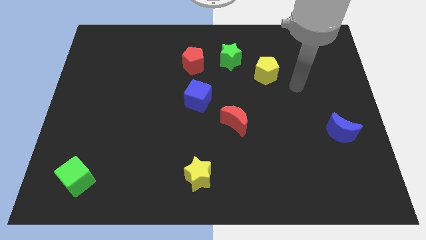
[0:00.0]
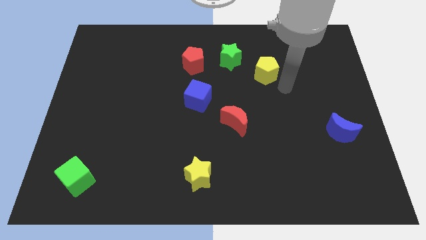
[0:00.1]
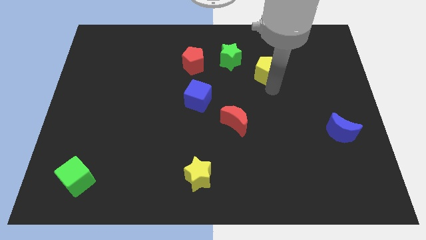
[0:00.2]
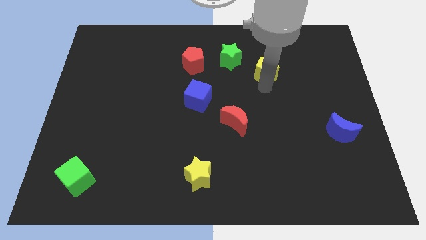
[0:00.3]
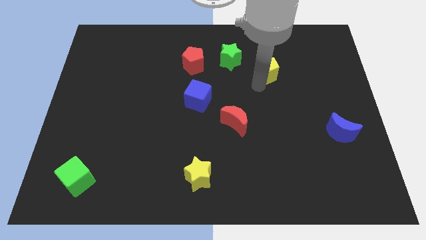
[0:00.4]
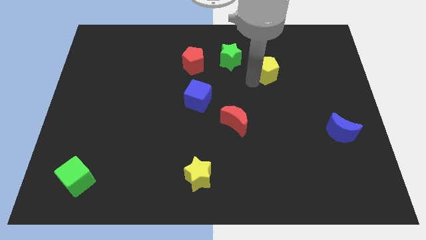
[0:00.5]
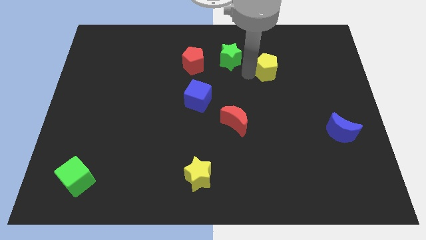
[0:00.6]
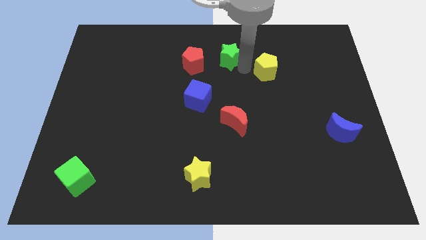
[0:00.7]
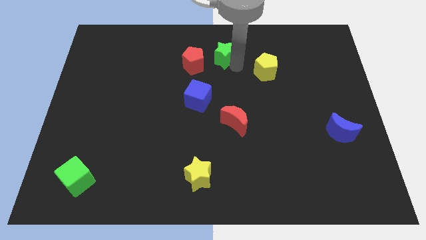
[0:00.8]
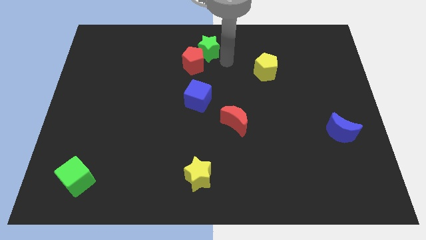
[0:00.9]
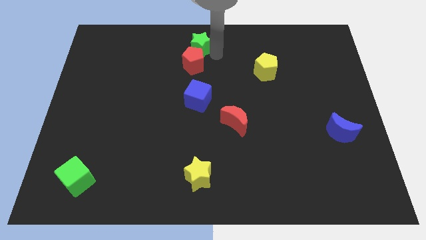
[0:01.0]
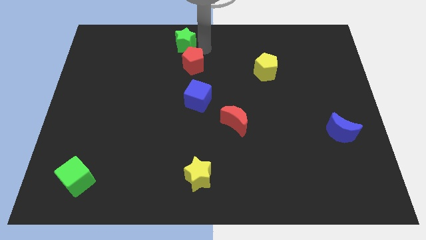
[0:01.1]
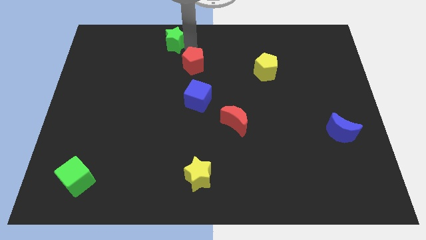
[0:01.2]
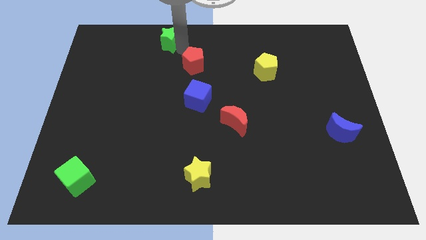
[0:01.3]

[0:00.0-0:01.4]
separate the red pentagon from the green star

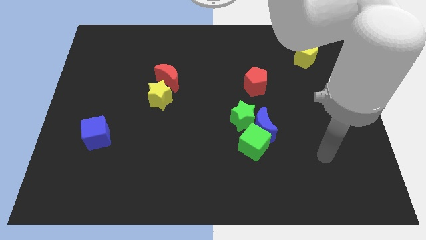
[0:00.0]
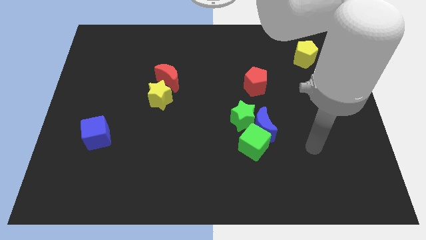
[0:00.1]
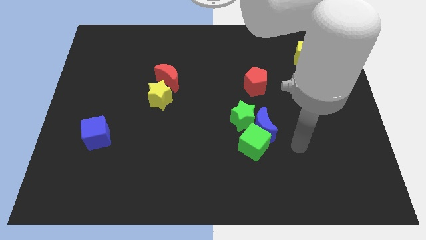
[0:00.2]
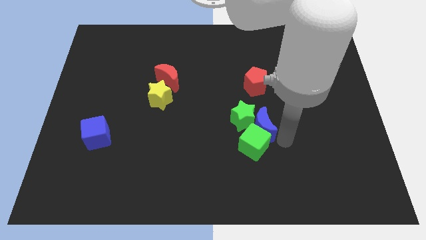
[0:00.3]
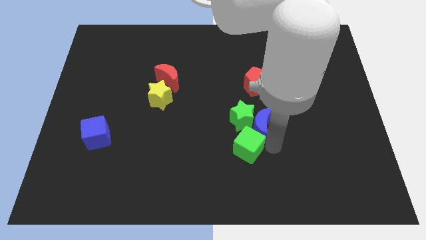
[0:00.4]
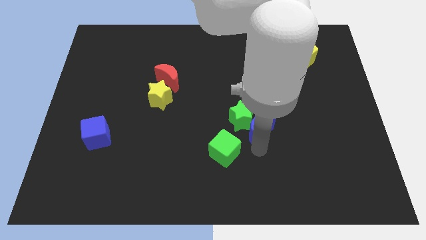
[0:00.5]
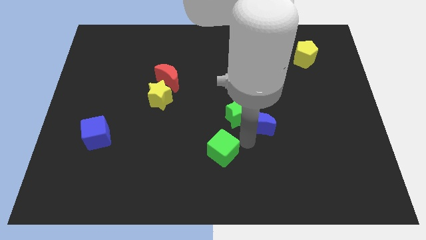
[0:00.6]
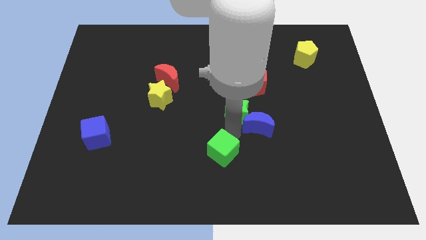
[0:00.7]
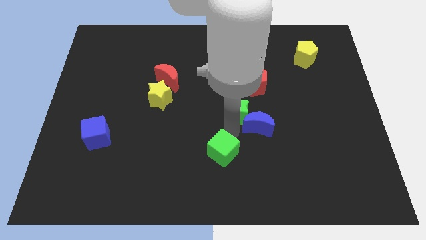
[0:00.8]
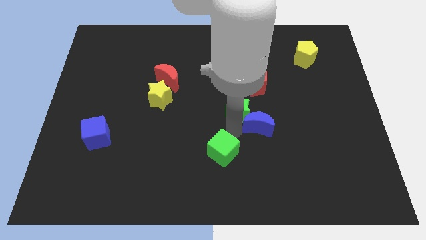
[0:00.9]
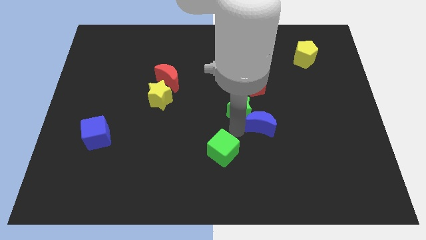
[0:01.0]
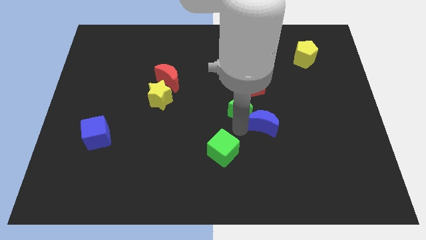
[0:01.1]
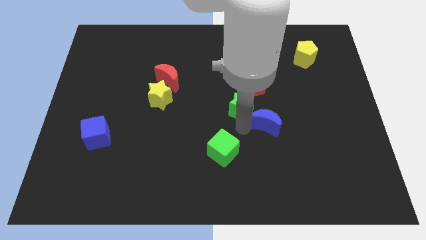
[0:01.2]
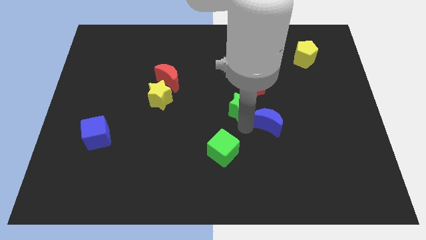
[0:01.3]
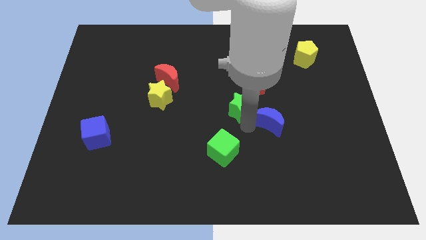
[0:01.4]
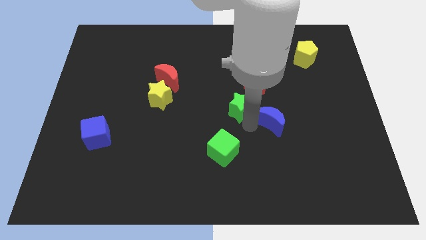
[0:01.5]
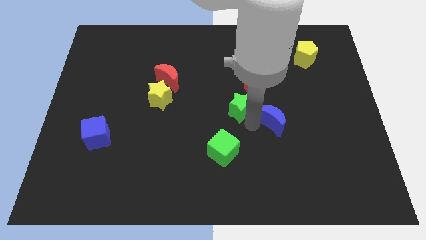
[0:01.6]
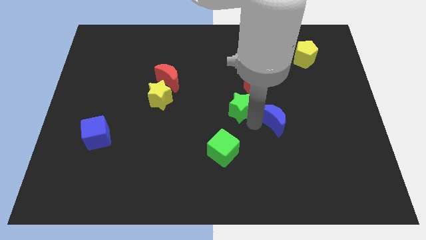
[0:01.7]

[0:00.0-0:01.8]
pull the blue moon apart from the green cube and green star

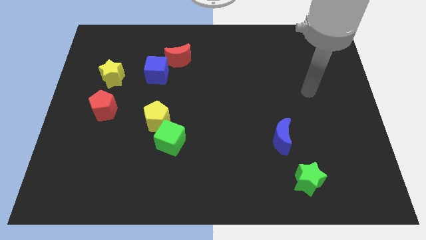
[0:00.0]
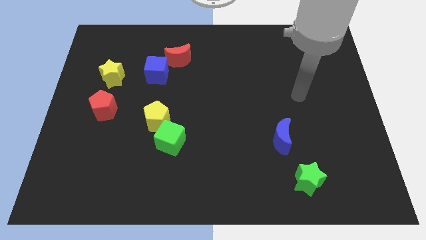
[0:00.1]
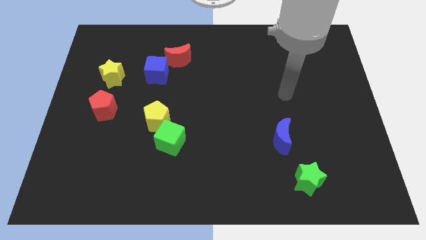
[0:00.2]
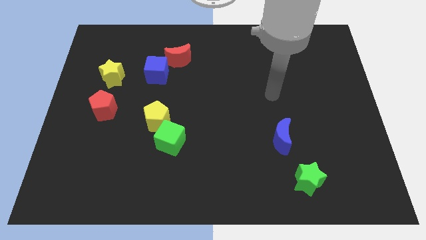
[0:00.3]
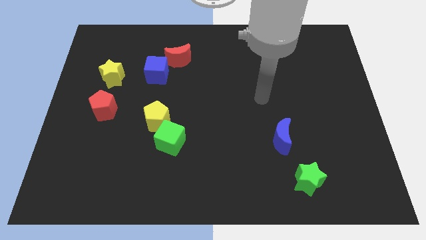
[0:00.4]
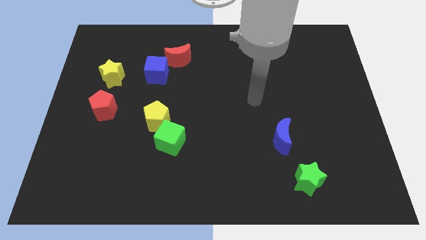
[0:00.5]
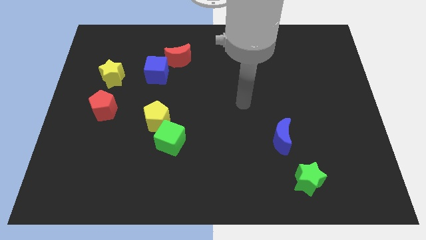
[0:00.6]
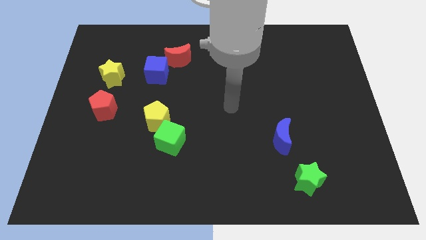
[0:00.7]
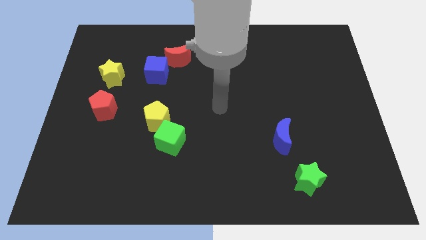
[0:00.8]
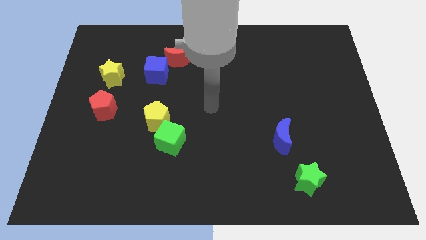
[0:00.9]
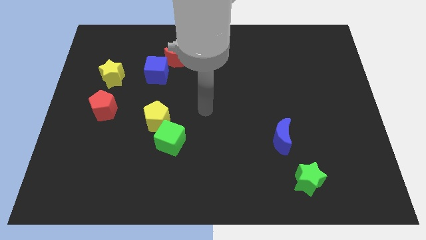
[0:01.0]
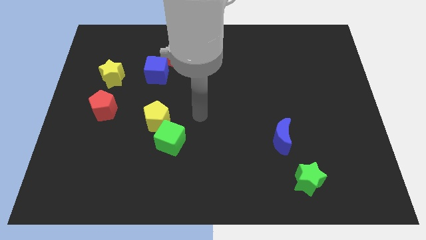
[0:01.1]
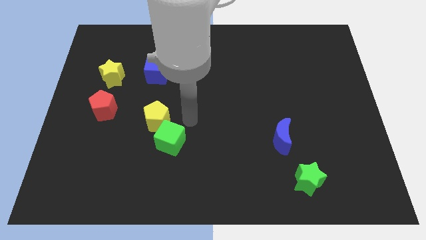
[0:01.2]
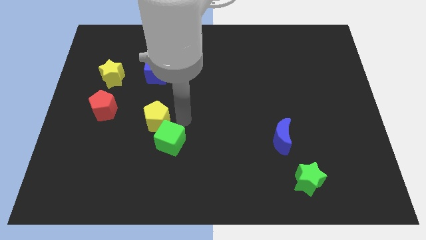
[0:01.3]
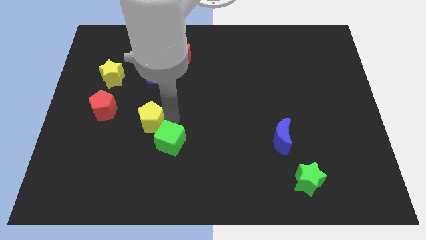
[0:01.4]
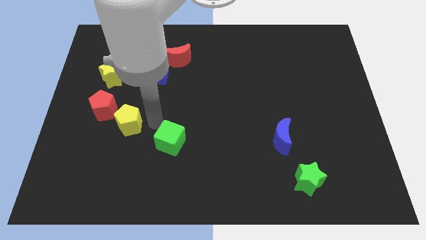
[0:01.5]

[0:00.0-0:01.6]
pull the green cube apart from the yellow pentagon

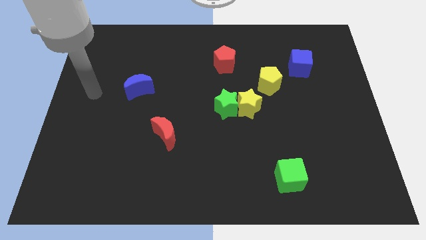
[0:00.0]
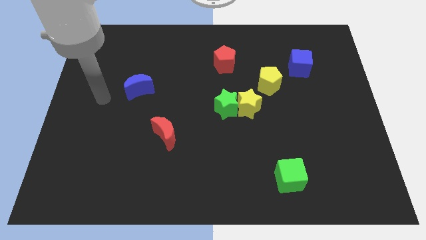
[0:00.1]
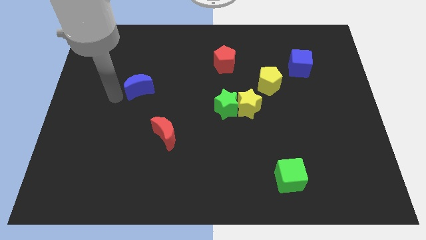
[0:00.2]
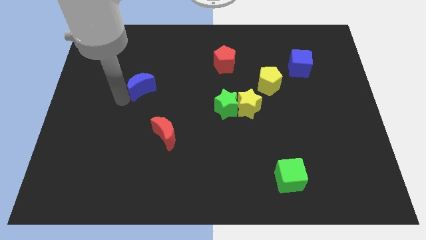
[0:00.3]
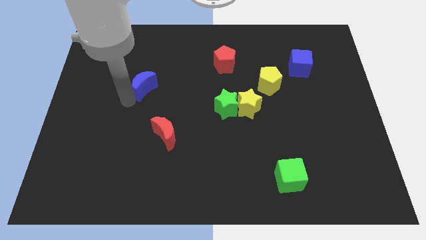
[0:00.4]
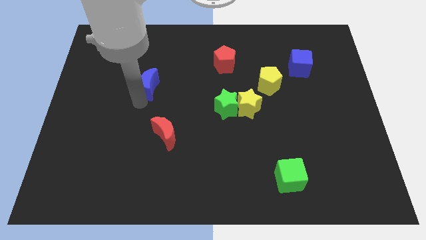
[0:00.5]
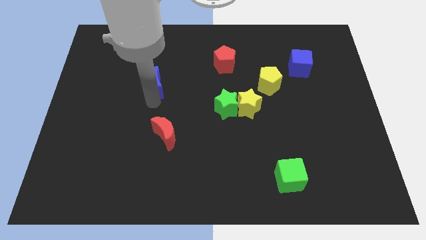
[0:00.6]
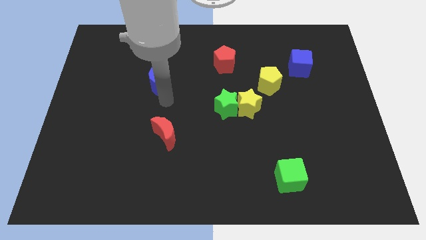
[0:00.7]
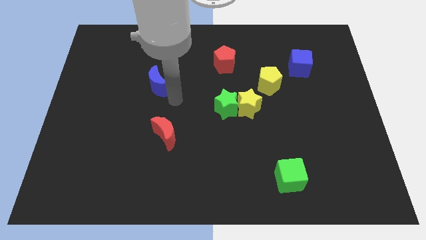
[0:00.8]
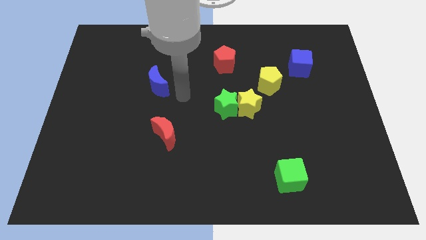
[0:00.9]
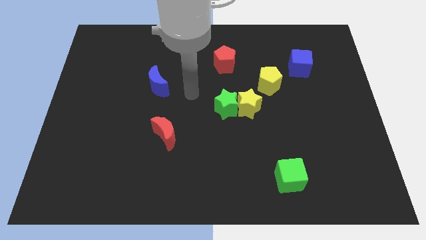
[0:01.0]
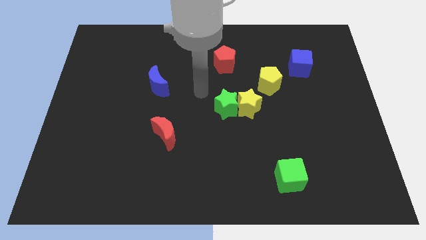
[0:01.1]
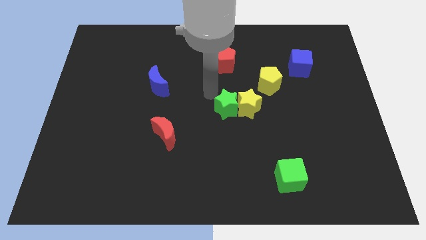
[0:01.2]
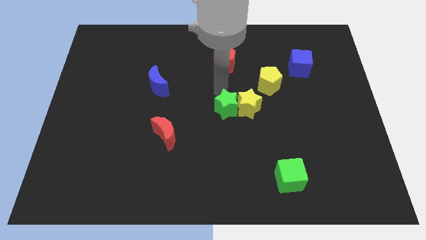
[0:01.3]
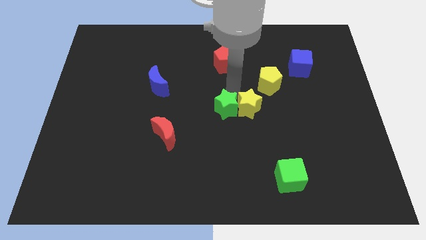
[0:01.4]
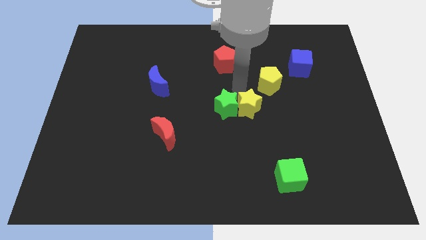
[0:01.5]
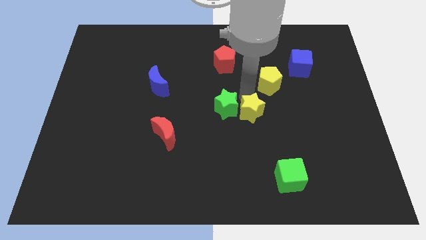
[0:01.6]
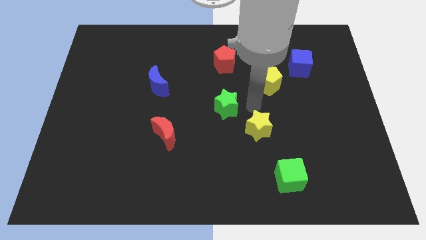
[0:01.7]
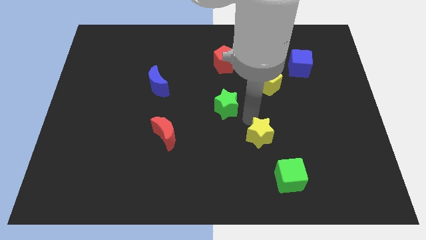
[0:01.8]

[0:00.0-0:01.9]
move the green star away from the yellow star

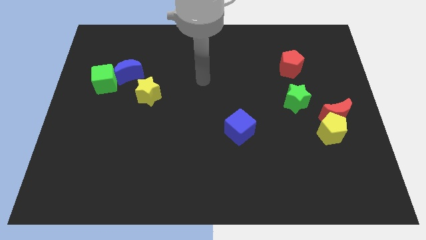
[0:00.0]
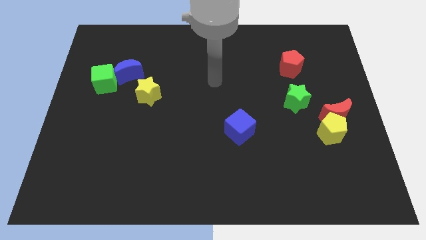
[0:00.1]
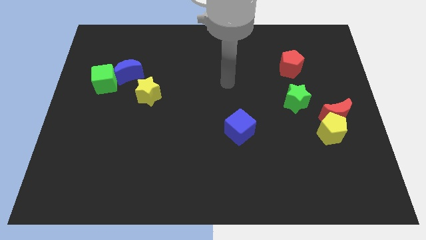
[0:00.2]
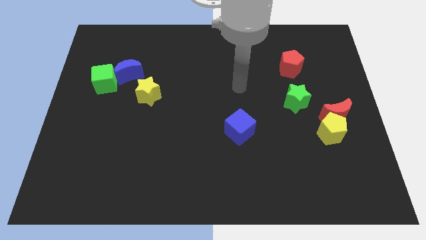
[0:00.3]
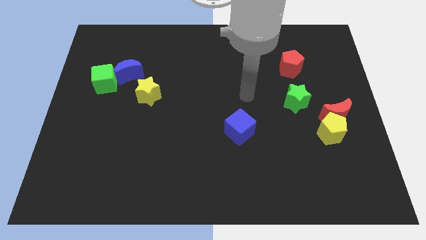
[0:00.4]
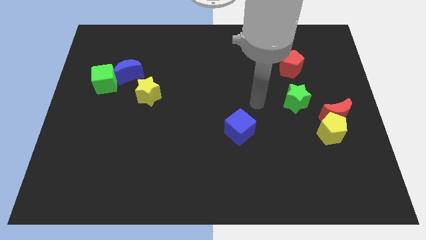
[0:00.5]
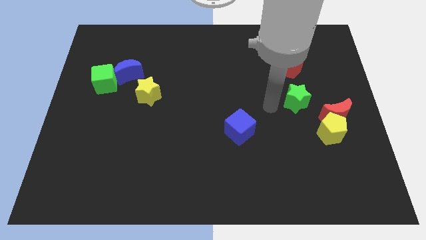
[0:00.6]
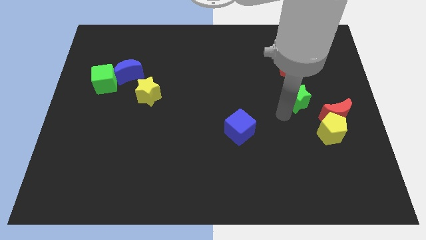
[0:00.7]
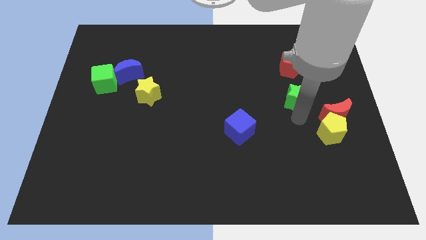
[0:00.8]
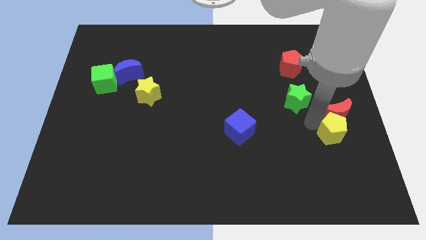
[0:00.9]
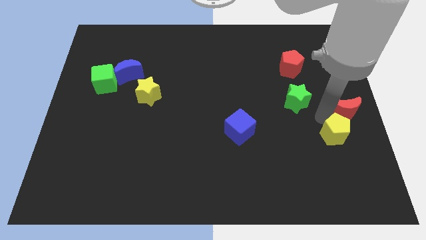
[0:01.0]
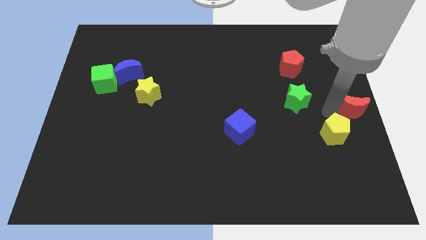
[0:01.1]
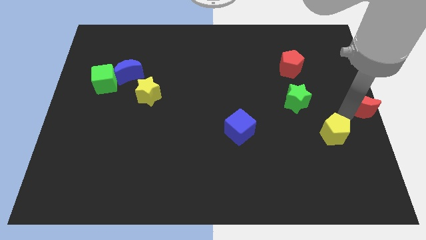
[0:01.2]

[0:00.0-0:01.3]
move the yellow pentagon away from the red moon

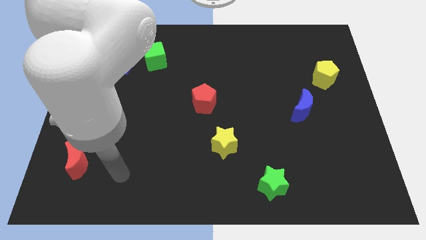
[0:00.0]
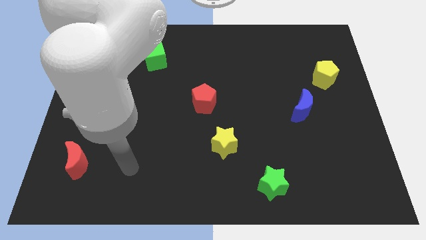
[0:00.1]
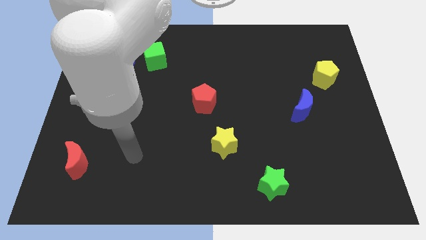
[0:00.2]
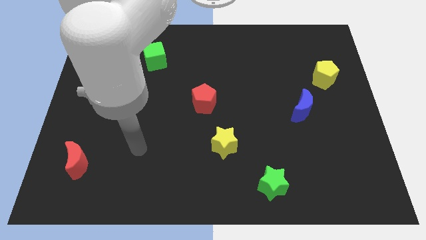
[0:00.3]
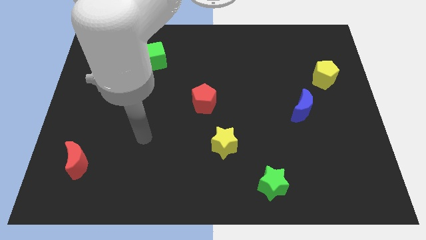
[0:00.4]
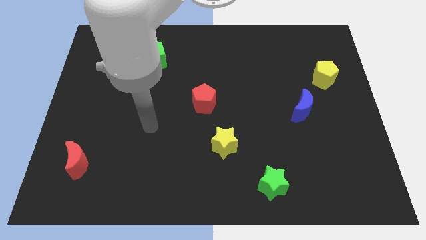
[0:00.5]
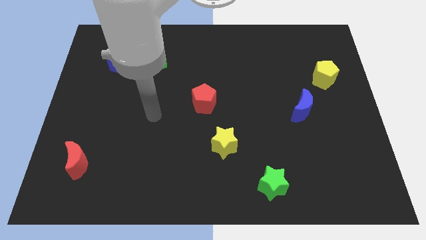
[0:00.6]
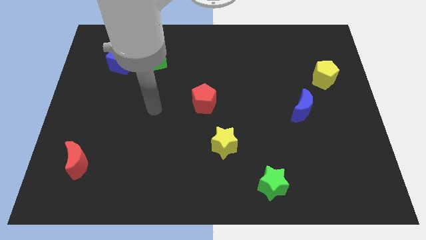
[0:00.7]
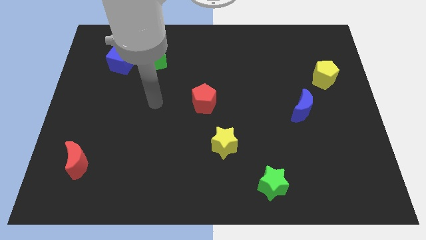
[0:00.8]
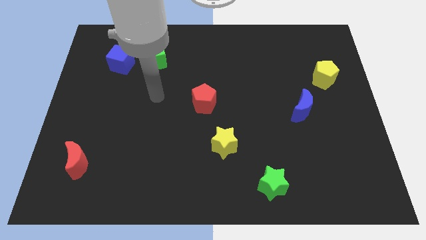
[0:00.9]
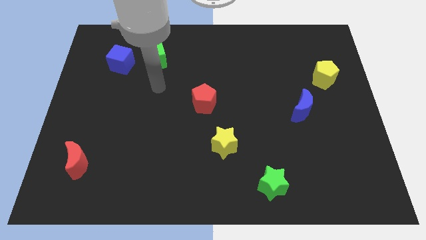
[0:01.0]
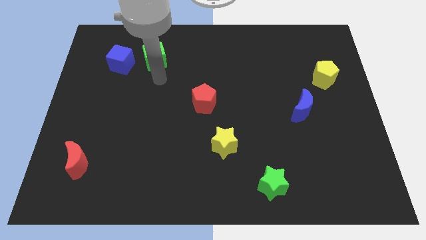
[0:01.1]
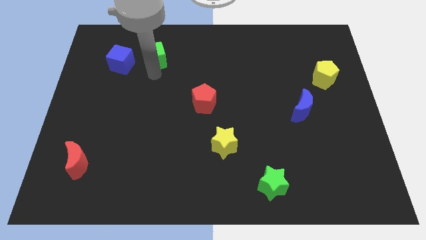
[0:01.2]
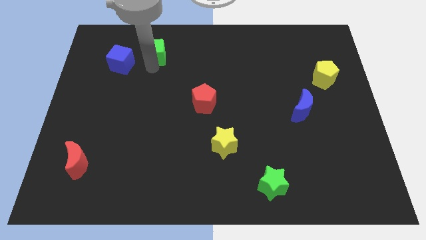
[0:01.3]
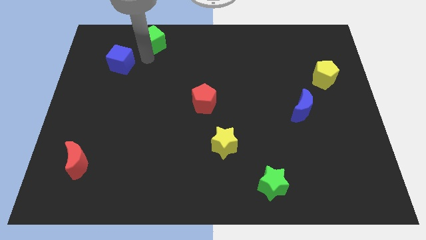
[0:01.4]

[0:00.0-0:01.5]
move the blue cube away from the green cube

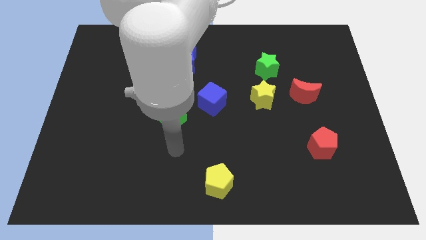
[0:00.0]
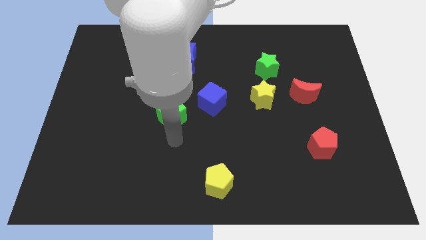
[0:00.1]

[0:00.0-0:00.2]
pull the blue cube apart from the green cube
